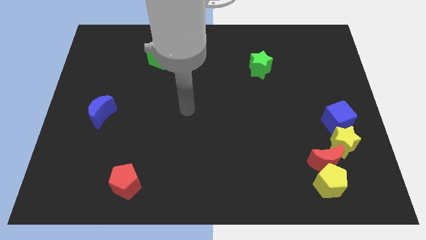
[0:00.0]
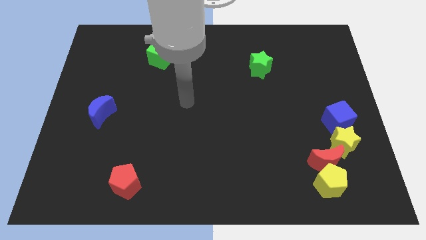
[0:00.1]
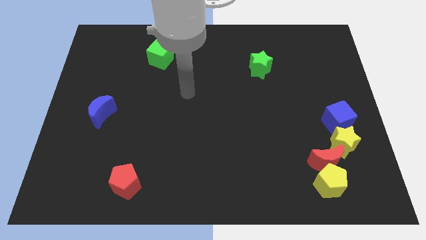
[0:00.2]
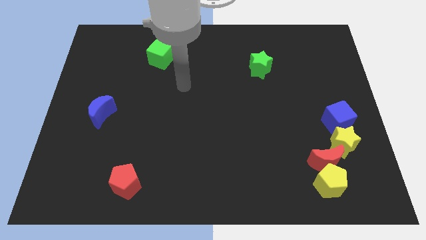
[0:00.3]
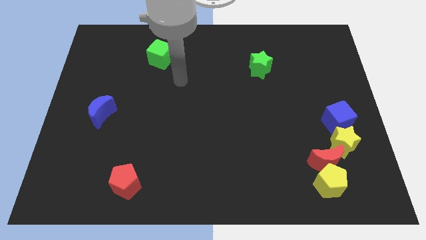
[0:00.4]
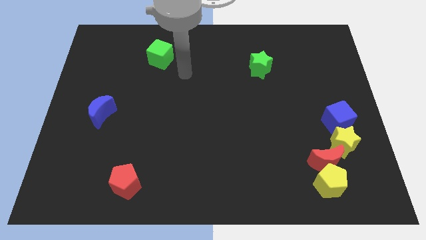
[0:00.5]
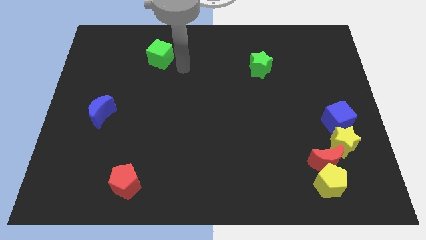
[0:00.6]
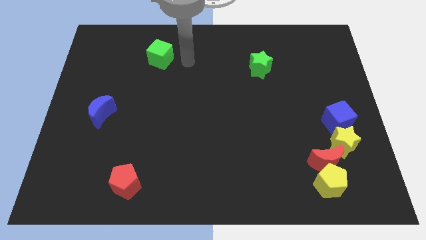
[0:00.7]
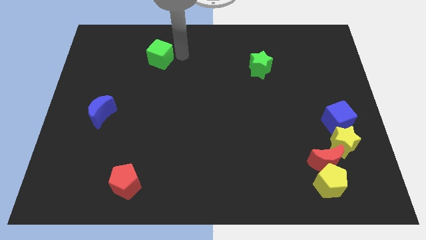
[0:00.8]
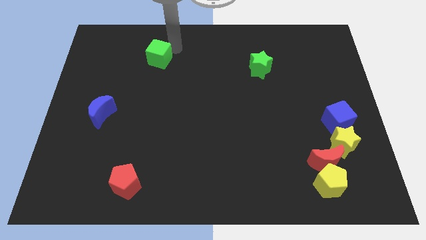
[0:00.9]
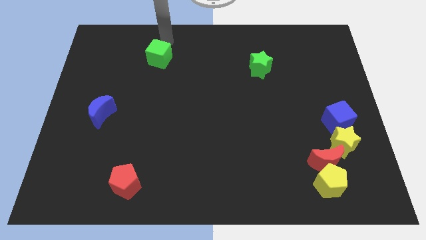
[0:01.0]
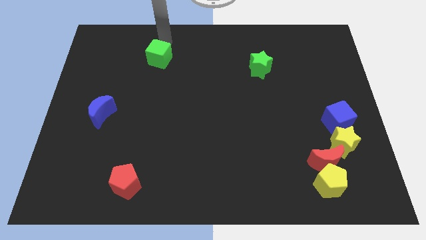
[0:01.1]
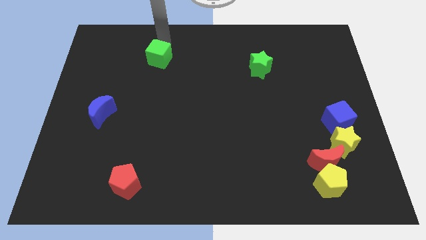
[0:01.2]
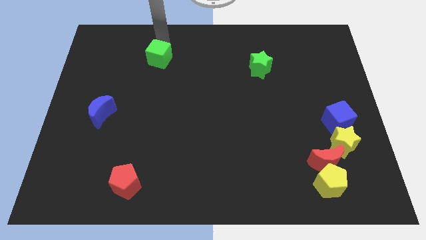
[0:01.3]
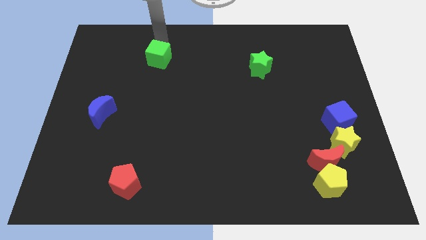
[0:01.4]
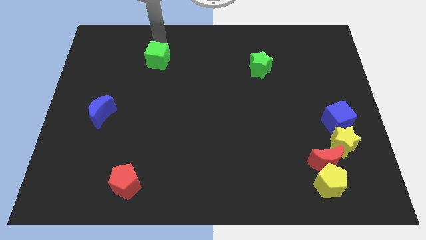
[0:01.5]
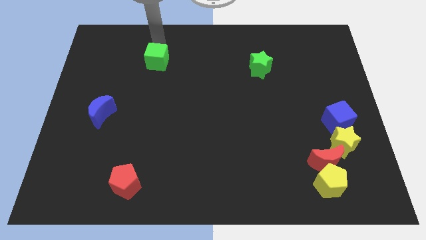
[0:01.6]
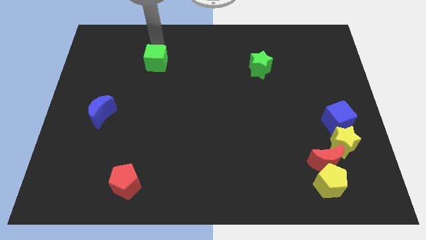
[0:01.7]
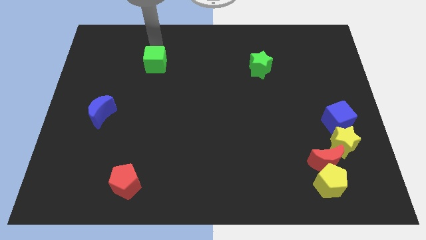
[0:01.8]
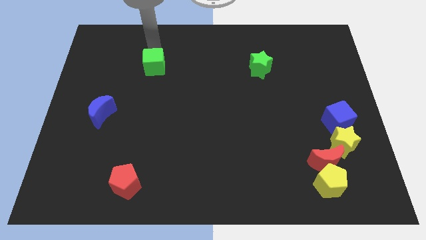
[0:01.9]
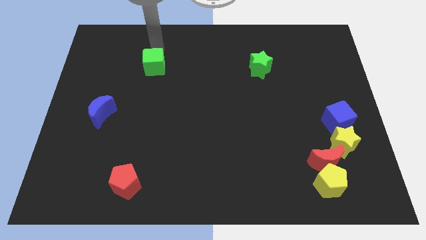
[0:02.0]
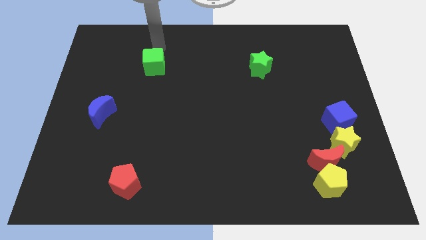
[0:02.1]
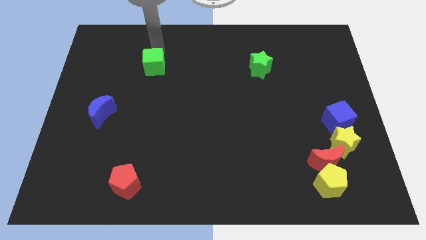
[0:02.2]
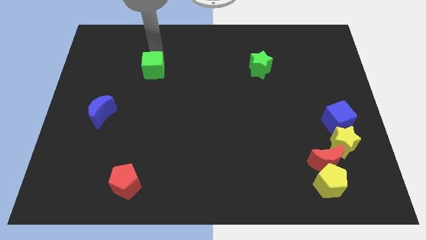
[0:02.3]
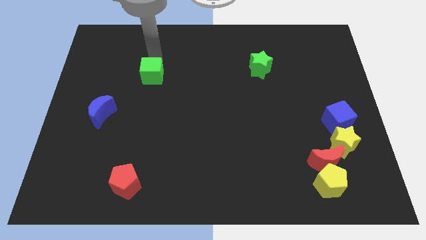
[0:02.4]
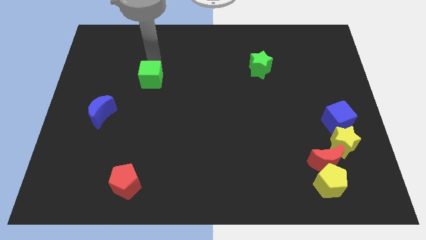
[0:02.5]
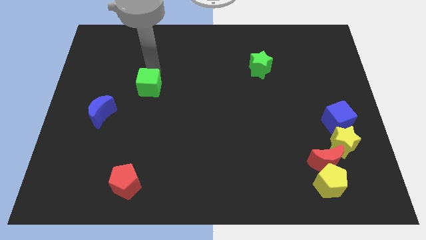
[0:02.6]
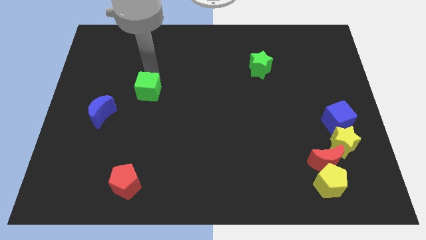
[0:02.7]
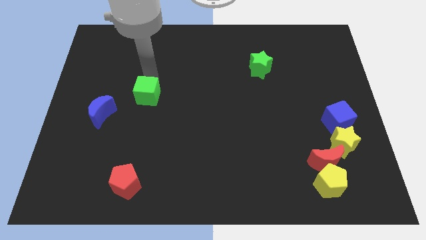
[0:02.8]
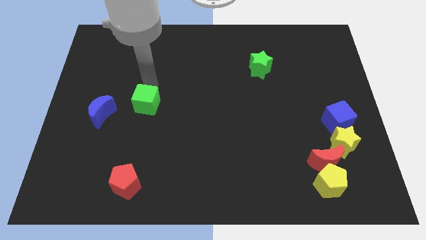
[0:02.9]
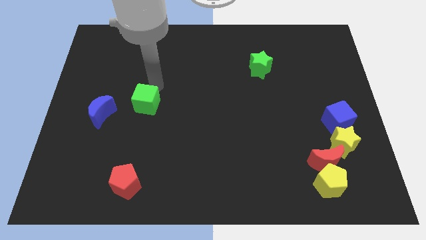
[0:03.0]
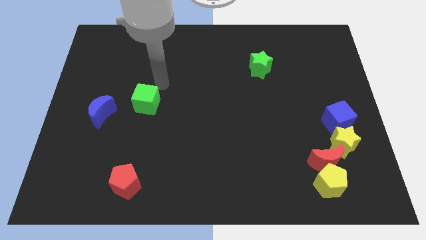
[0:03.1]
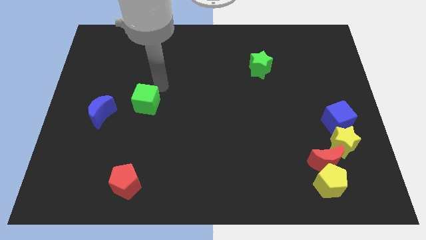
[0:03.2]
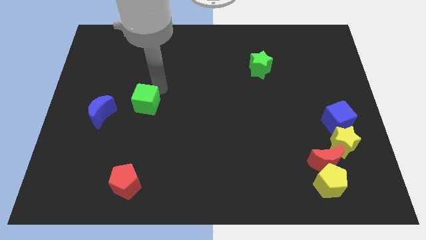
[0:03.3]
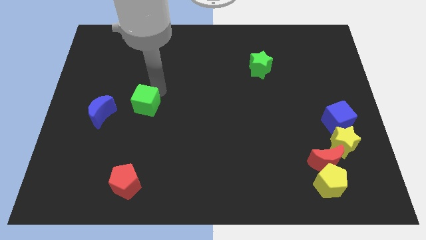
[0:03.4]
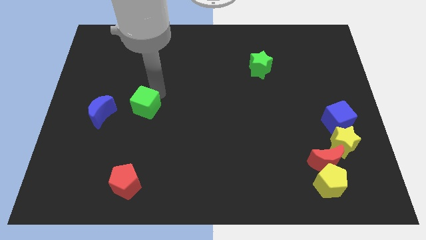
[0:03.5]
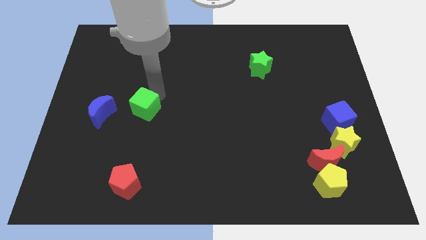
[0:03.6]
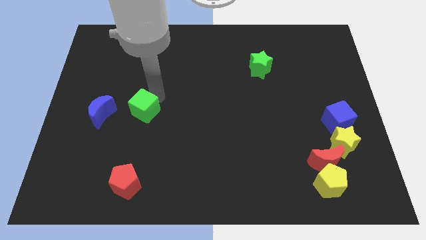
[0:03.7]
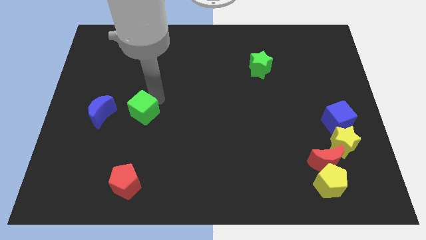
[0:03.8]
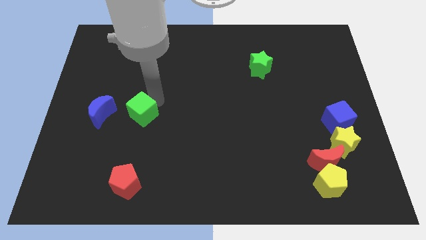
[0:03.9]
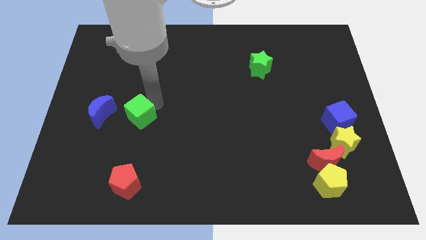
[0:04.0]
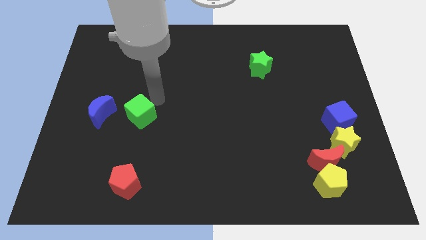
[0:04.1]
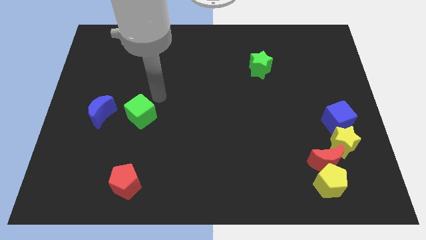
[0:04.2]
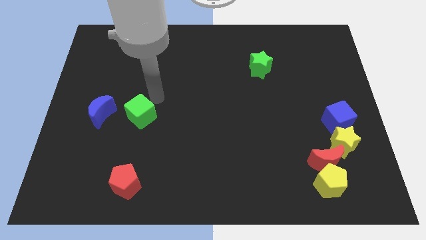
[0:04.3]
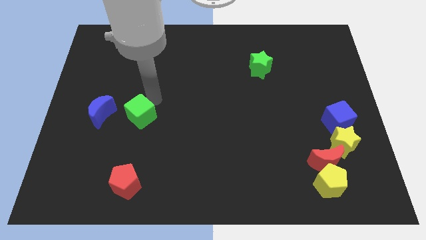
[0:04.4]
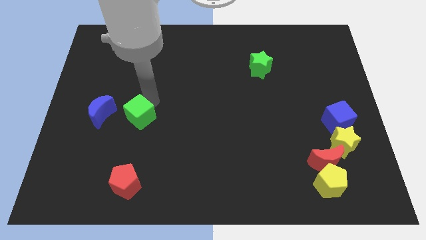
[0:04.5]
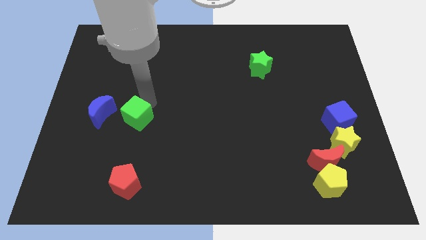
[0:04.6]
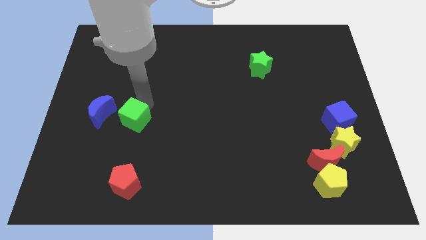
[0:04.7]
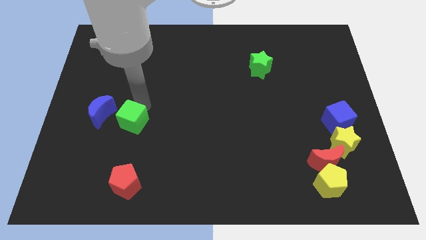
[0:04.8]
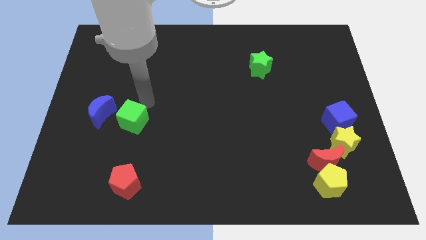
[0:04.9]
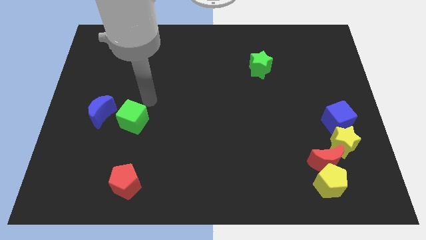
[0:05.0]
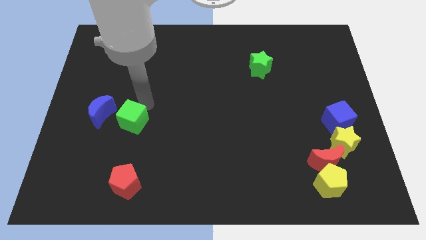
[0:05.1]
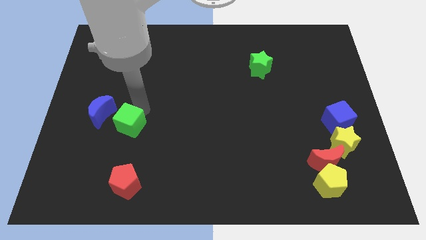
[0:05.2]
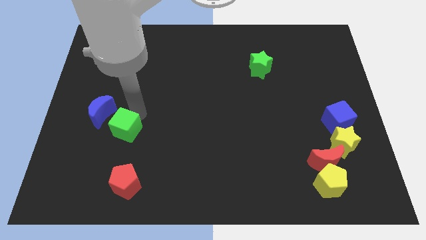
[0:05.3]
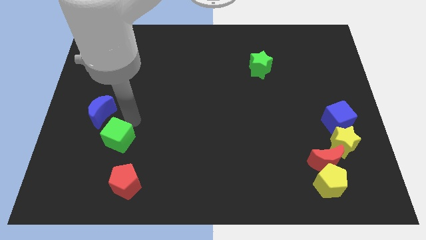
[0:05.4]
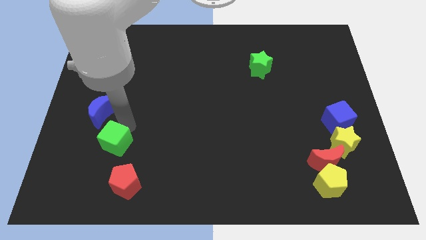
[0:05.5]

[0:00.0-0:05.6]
put the green cube diagonally up and to the left of the red pentagon

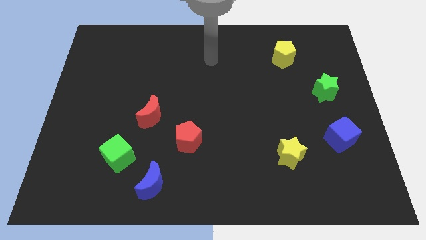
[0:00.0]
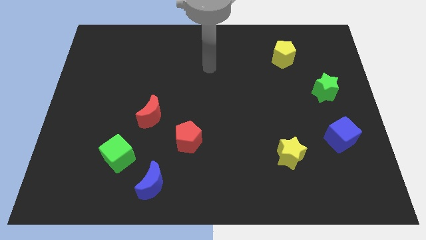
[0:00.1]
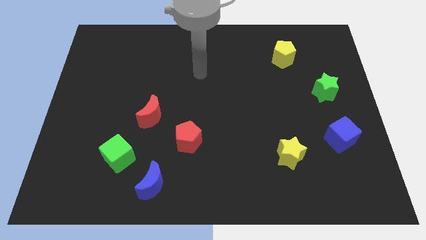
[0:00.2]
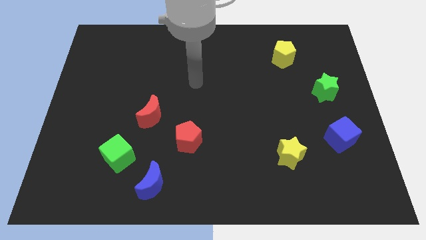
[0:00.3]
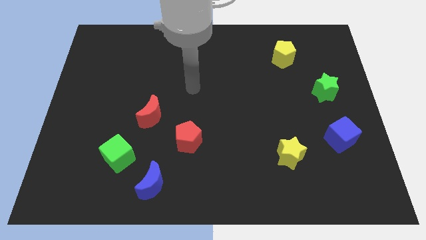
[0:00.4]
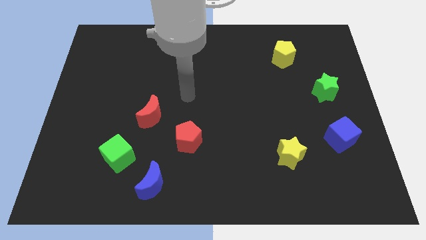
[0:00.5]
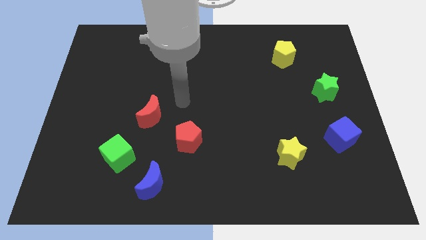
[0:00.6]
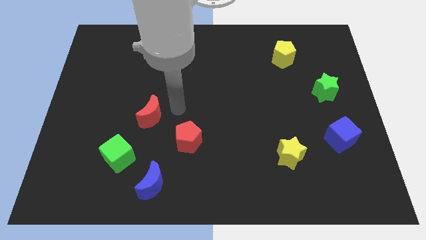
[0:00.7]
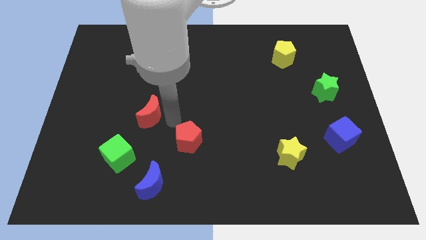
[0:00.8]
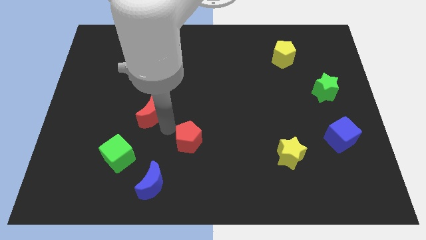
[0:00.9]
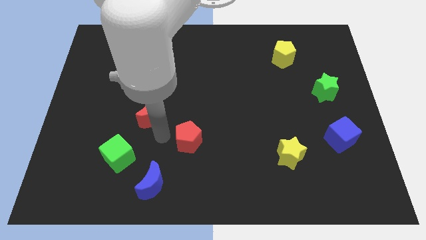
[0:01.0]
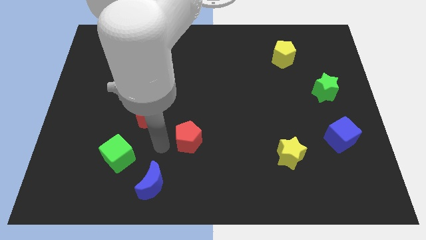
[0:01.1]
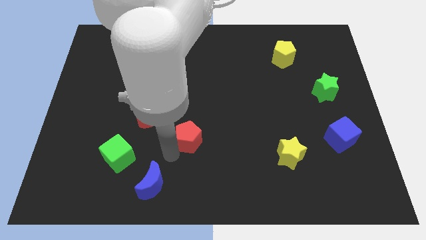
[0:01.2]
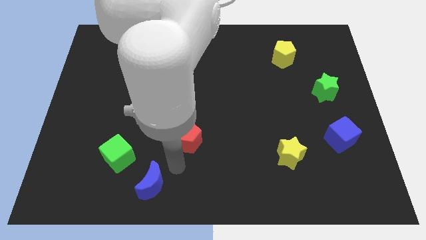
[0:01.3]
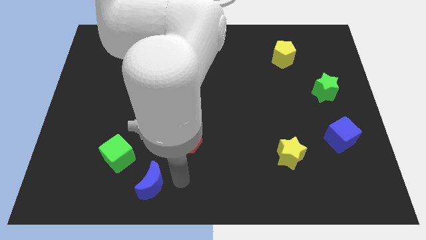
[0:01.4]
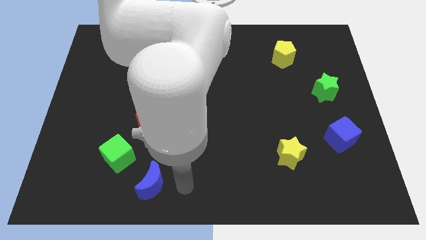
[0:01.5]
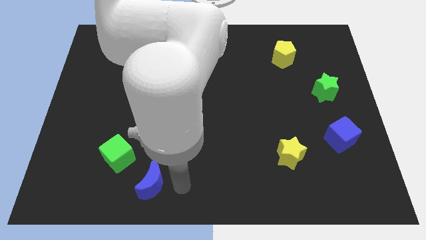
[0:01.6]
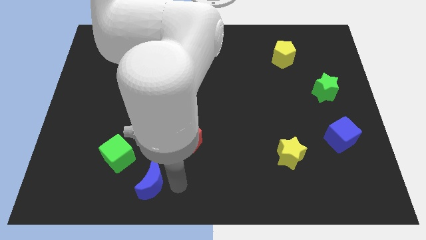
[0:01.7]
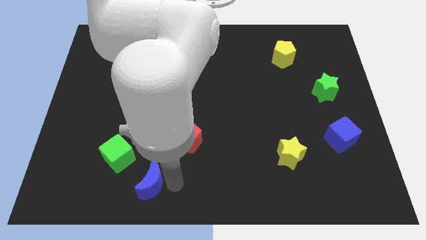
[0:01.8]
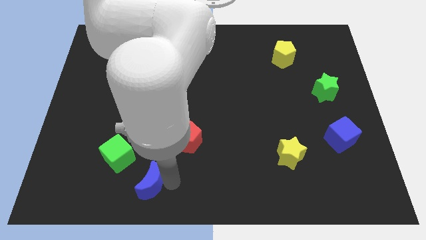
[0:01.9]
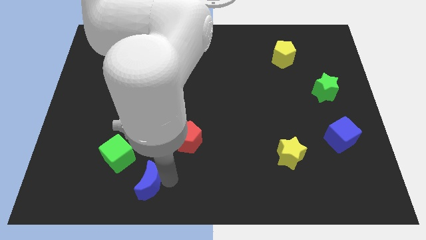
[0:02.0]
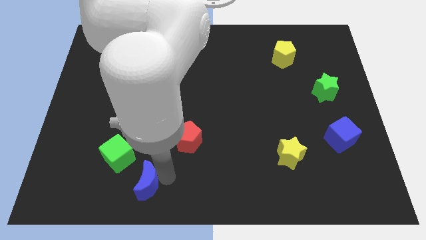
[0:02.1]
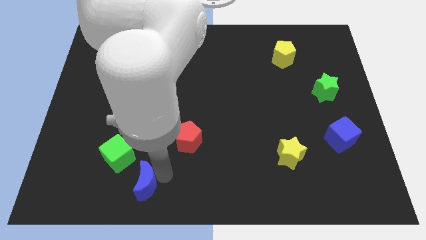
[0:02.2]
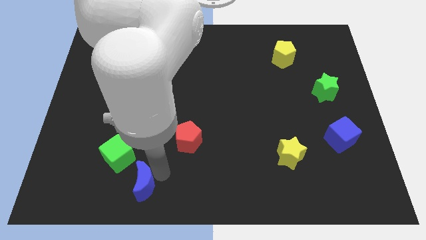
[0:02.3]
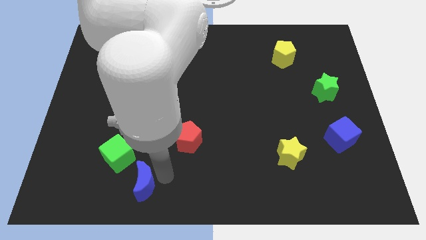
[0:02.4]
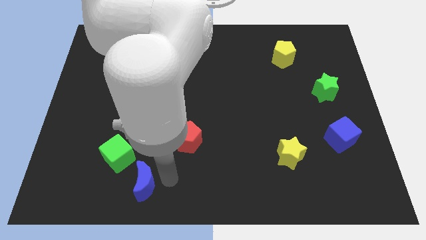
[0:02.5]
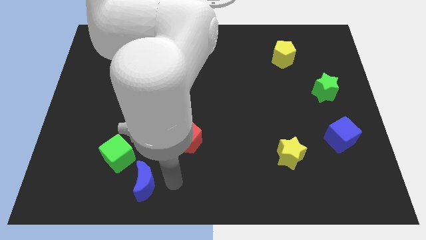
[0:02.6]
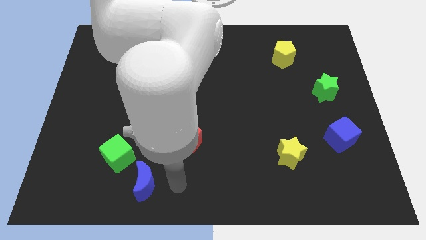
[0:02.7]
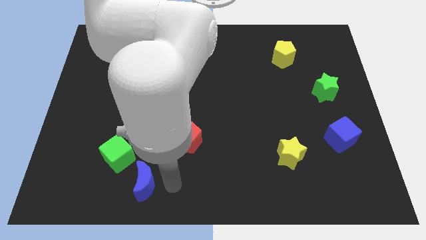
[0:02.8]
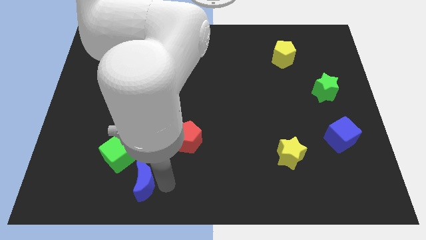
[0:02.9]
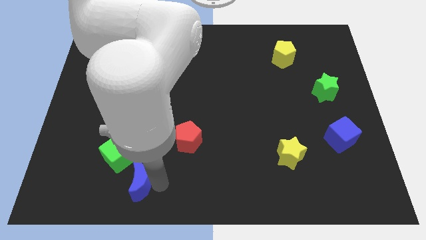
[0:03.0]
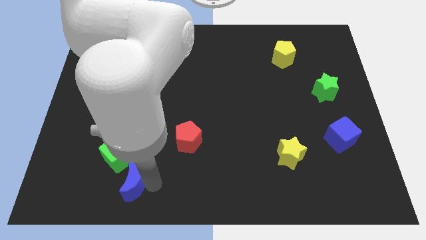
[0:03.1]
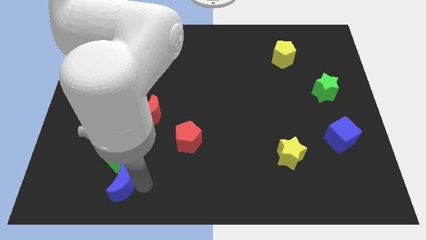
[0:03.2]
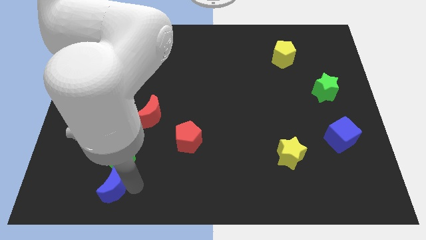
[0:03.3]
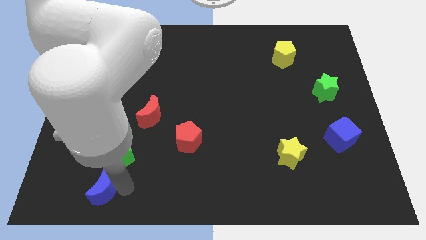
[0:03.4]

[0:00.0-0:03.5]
slide the blue moon to the bottom left side of the green cube
